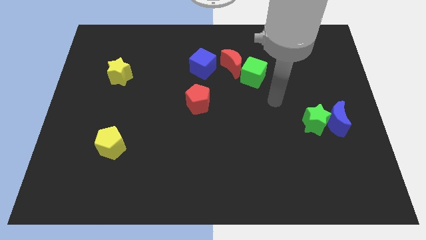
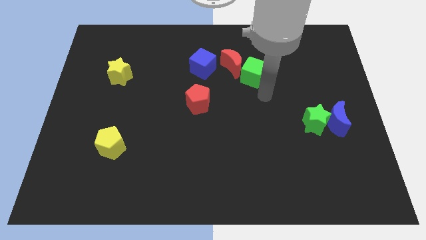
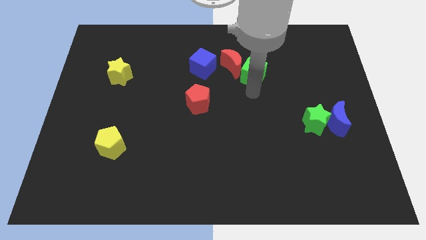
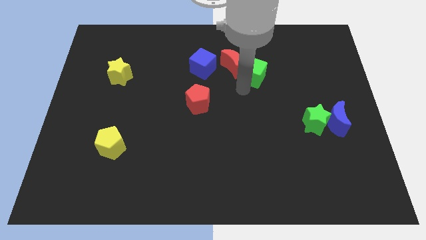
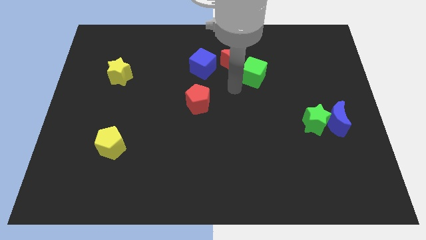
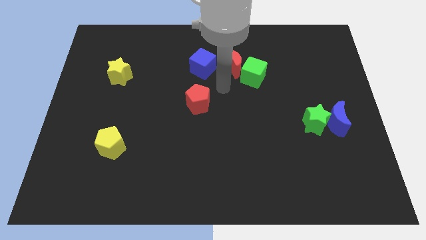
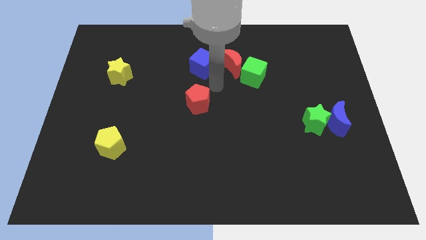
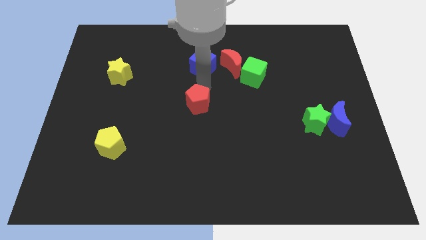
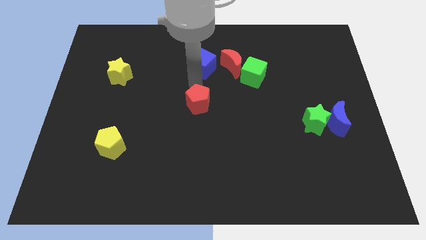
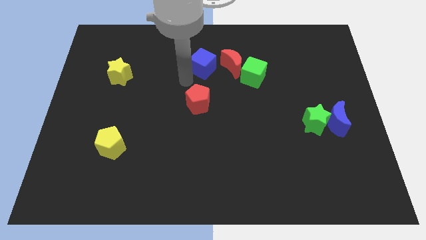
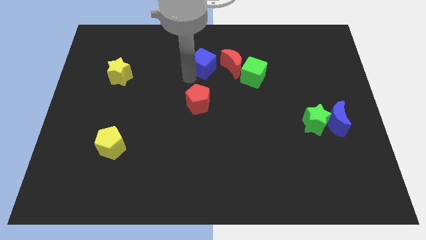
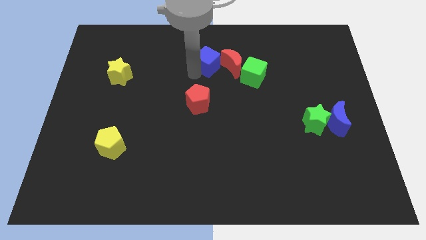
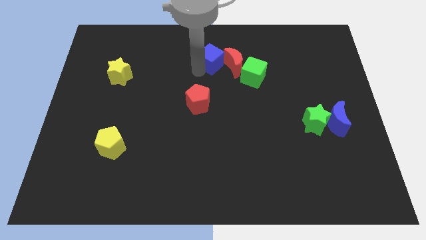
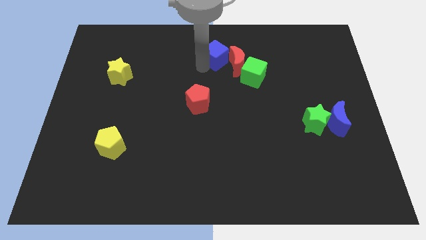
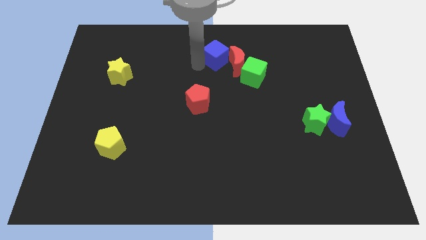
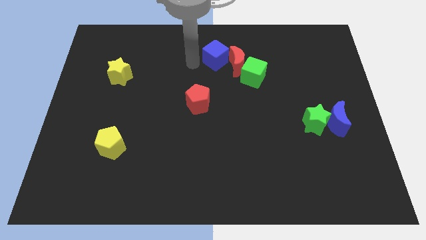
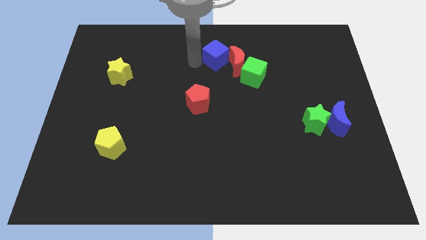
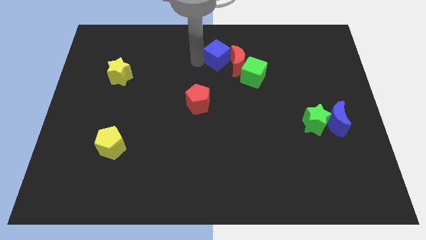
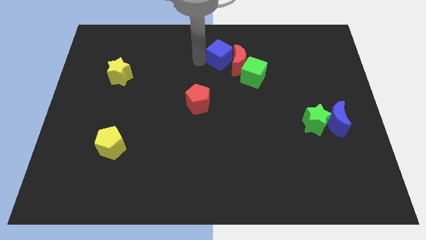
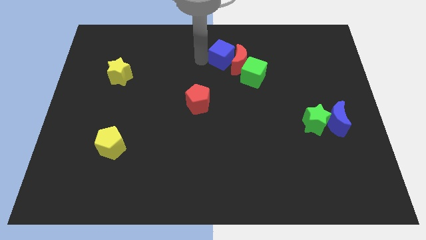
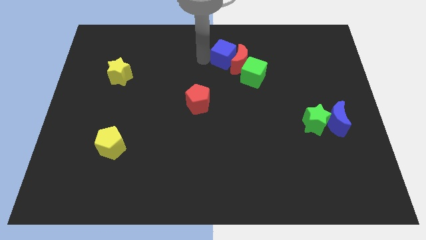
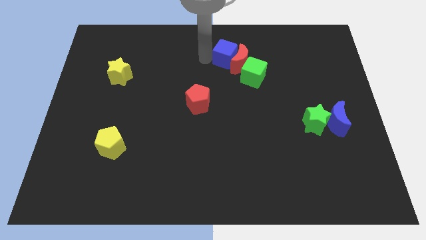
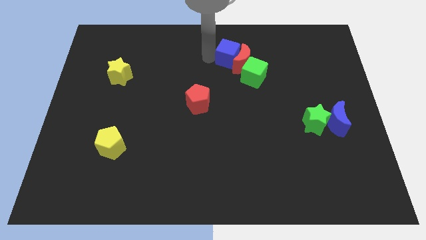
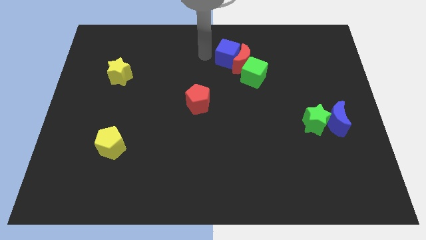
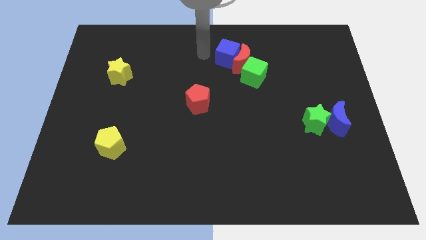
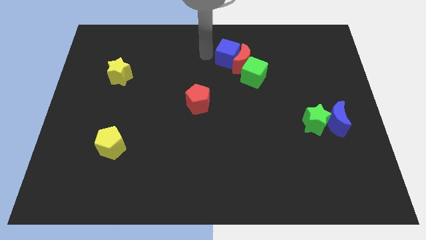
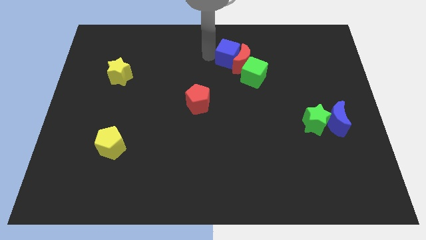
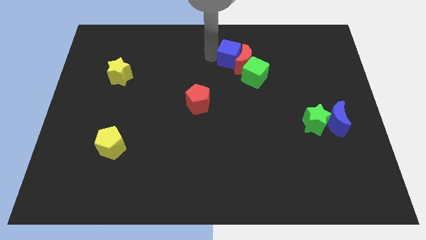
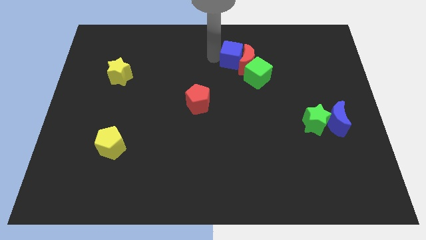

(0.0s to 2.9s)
move the blue cube somewhat to the right

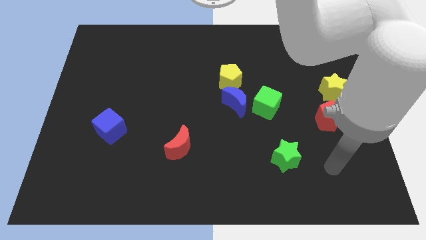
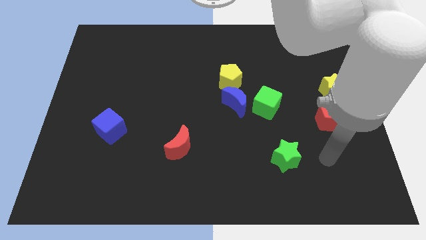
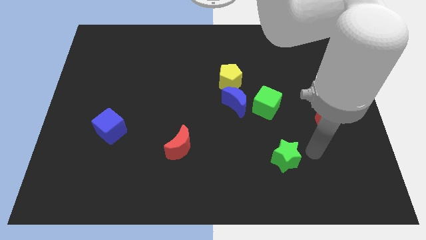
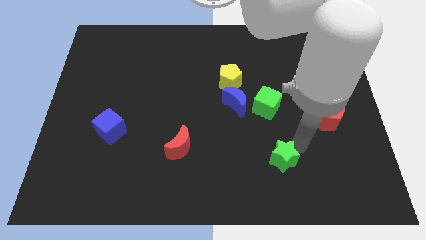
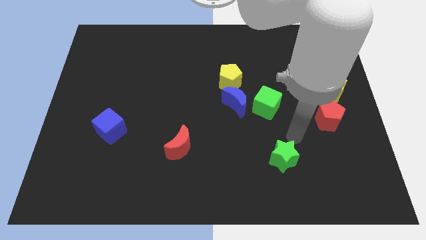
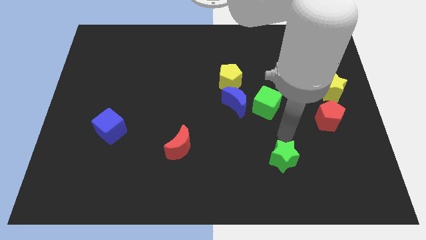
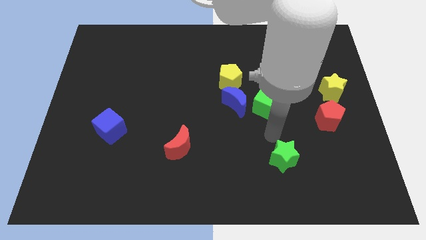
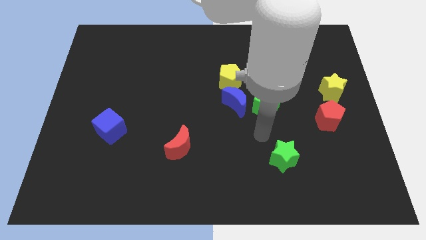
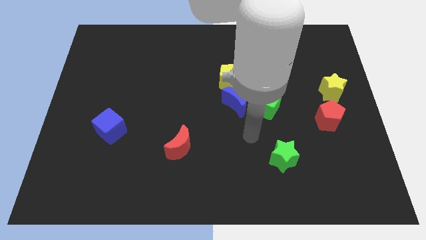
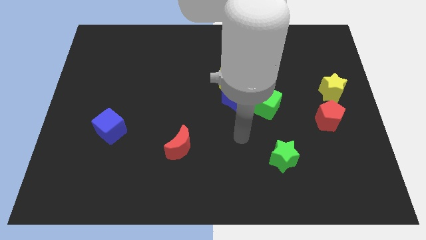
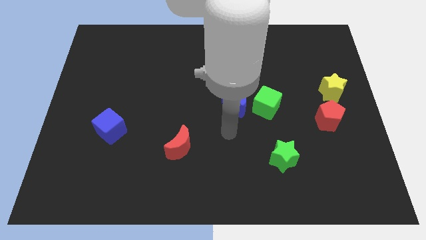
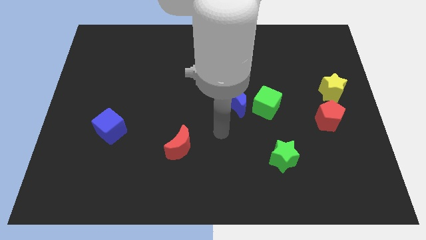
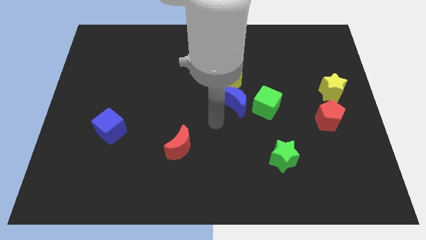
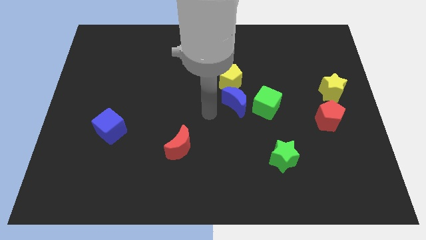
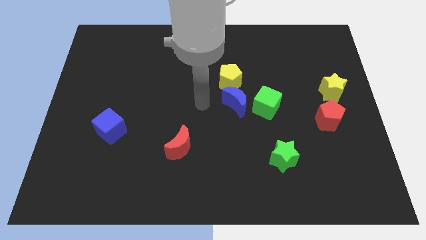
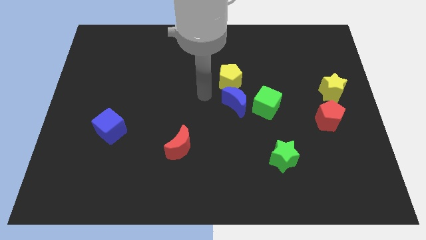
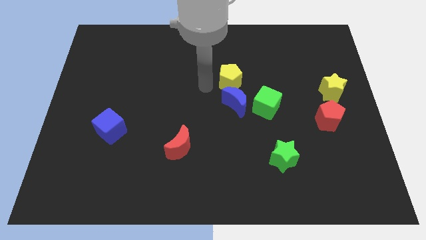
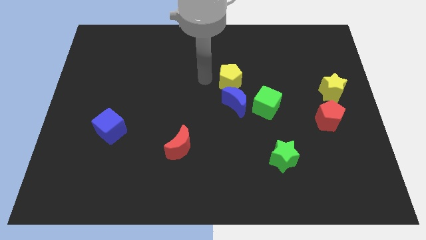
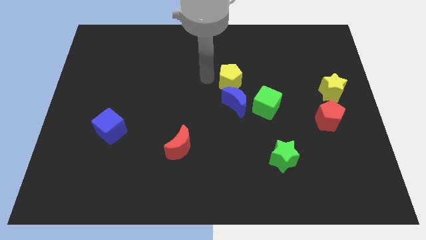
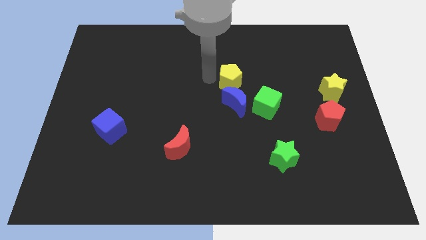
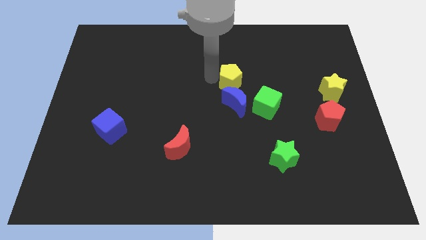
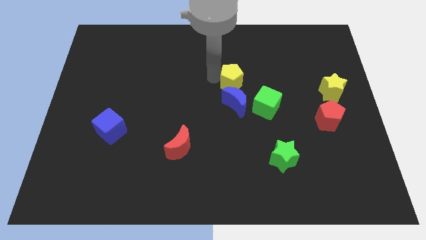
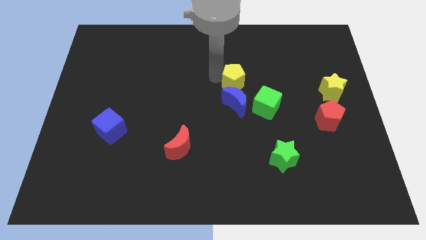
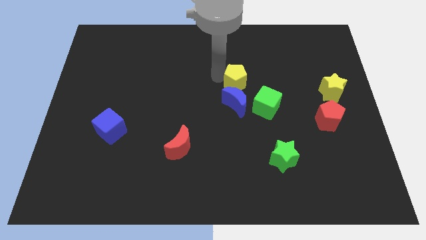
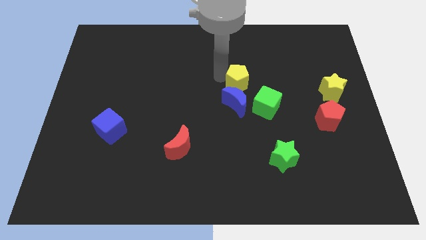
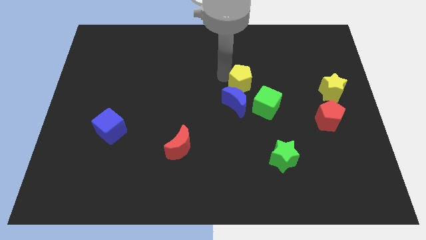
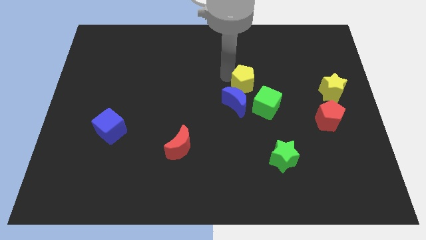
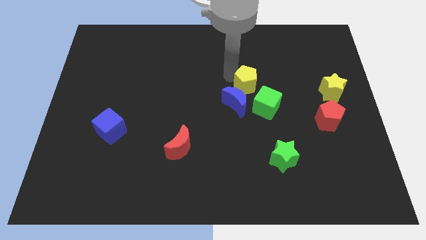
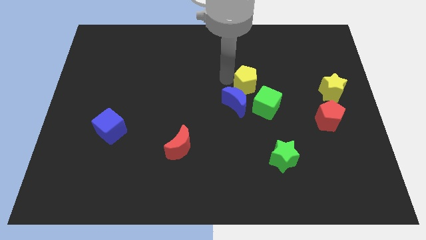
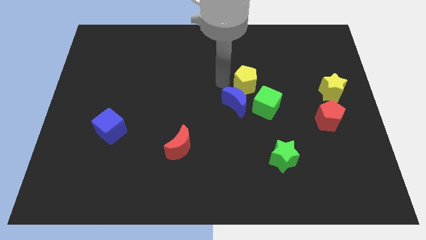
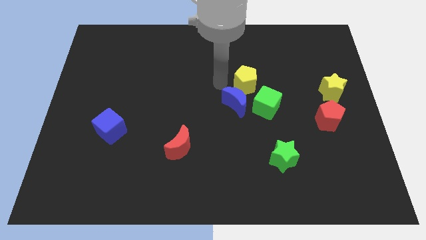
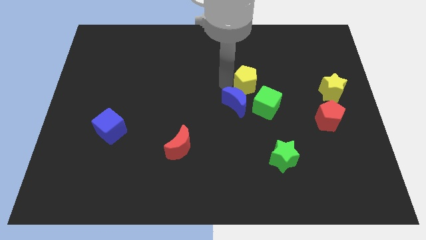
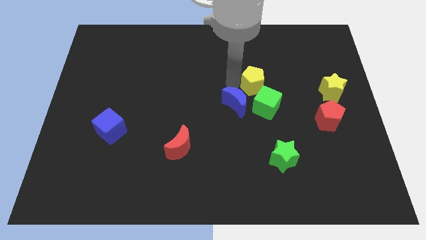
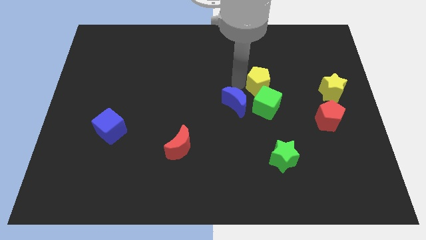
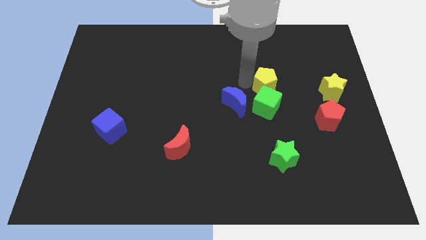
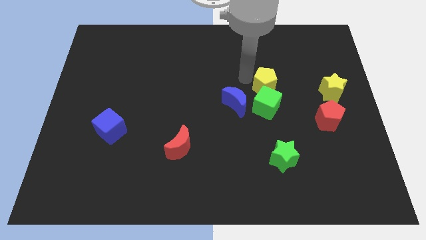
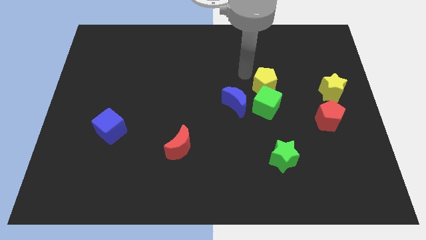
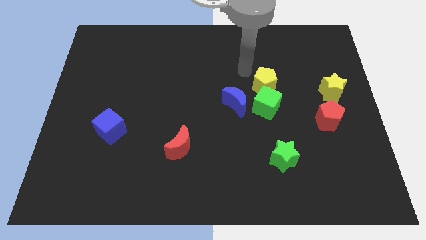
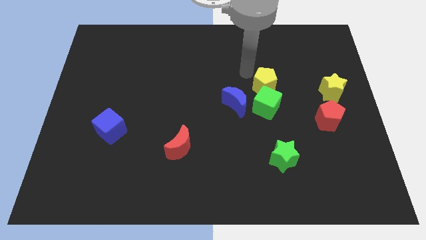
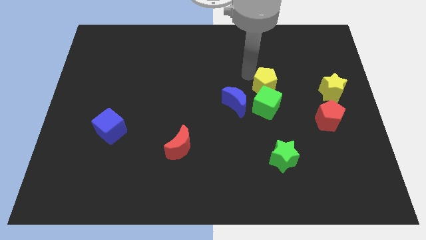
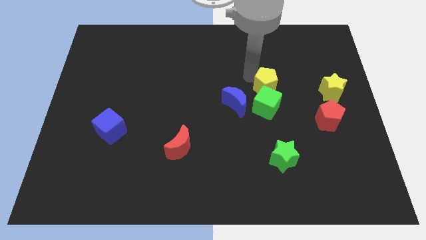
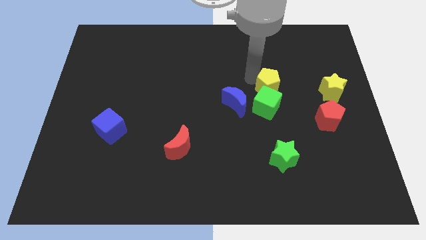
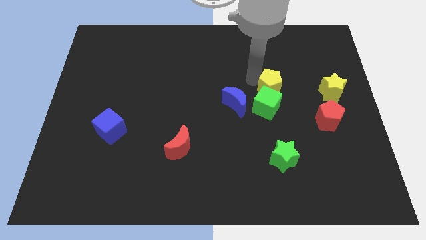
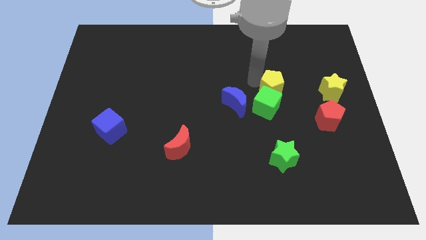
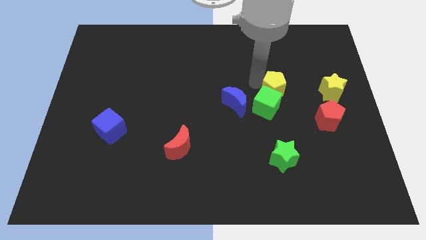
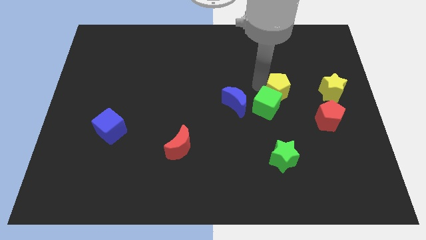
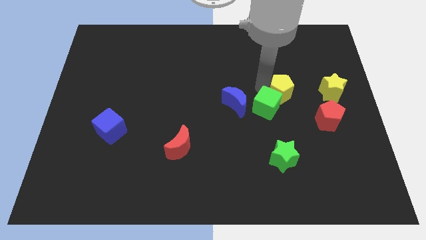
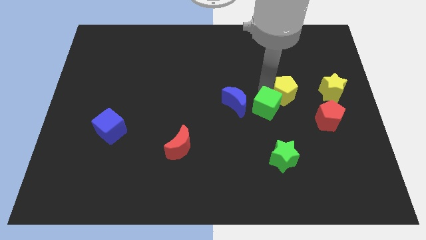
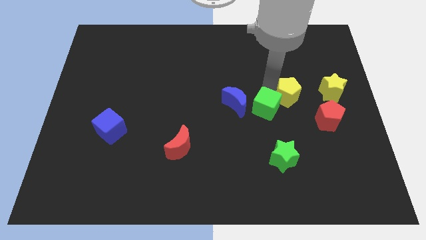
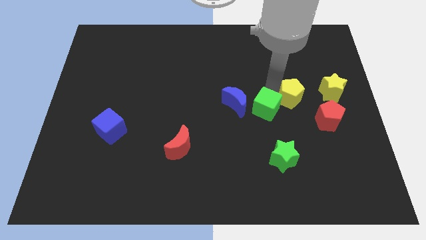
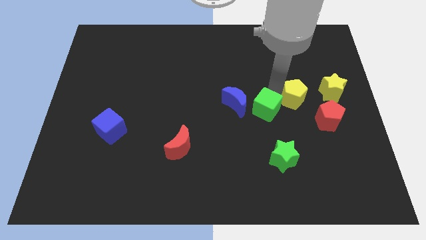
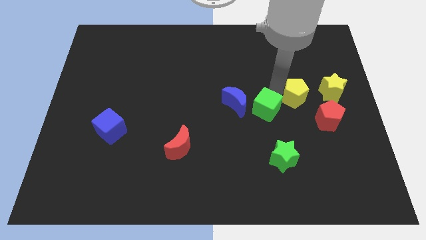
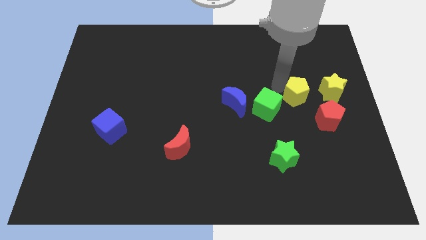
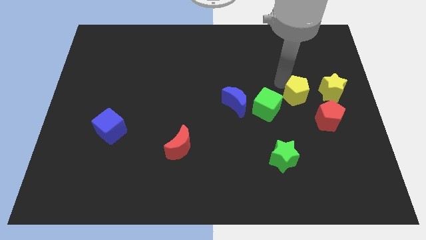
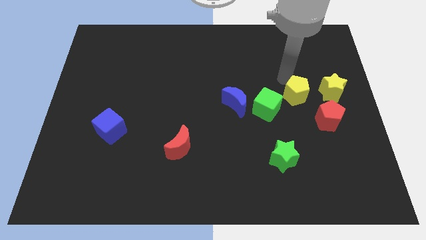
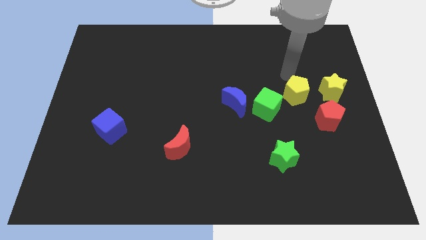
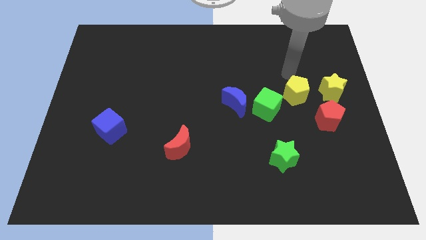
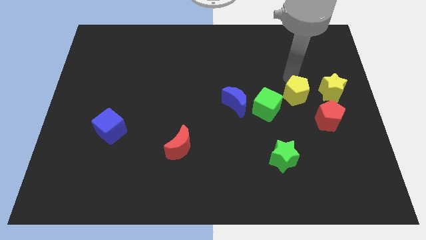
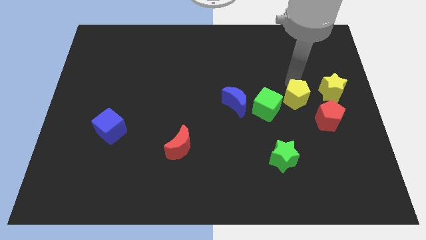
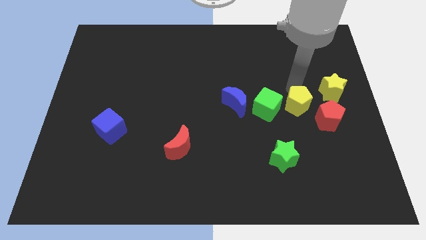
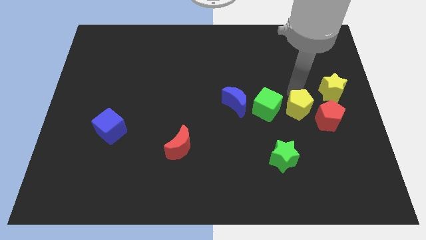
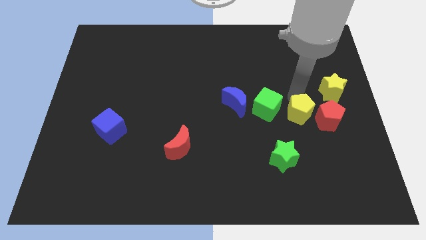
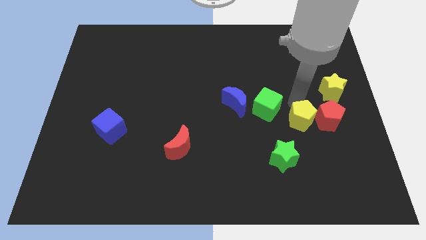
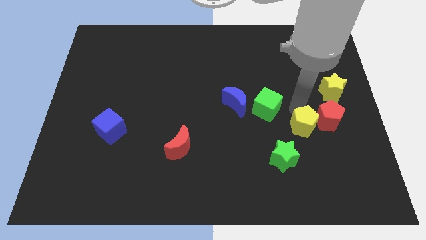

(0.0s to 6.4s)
push the yellow pentagon downwards and to the right diagonally
